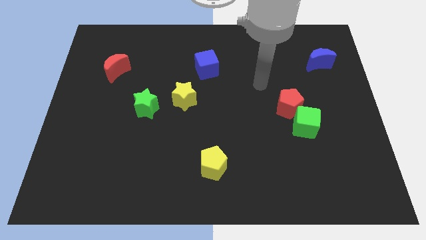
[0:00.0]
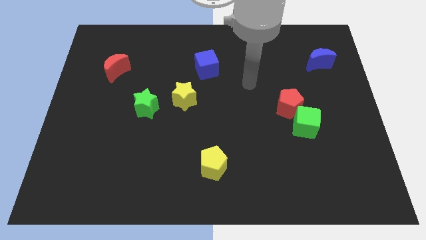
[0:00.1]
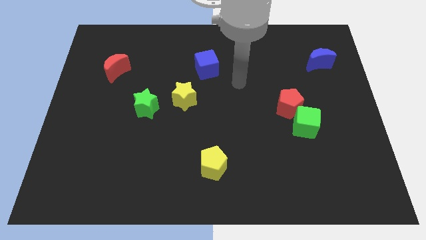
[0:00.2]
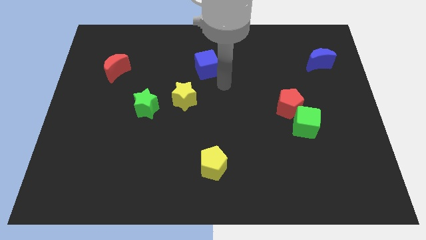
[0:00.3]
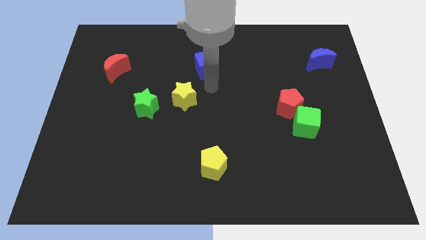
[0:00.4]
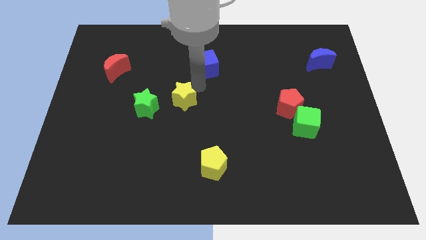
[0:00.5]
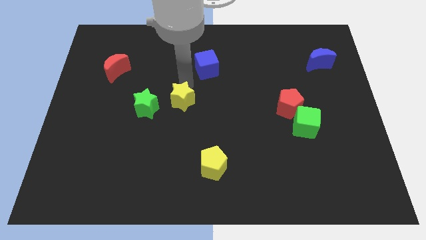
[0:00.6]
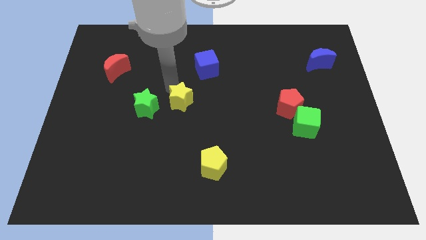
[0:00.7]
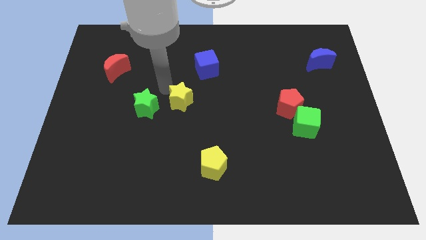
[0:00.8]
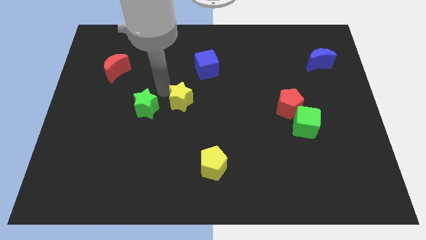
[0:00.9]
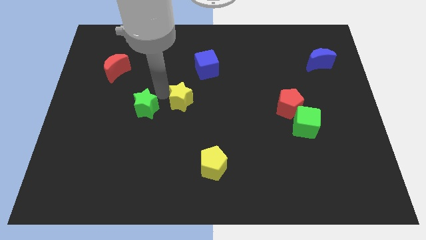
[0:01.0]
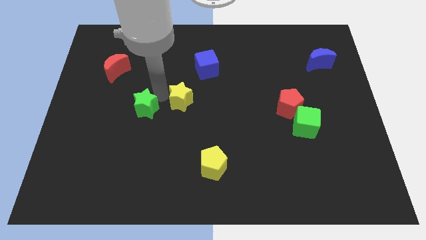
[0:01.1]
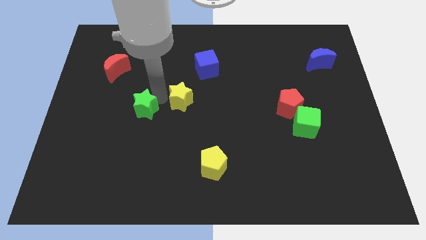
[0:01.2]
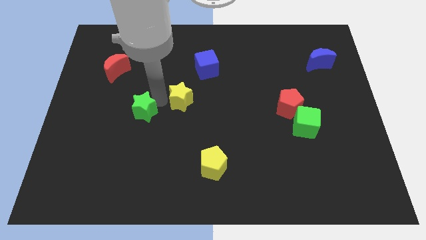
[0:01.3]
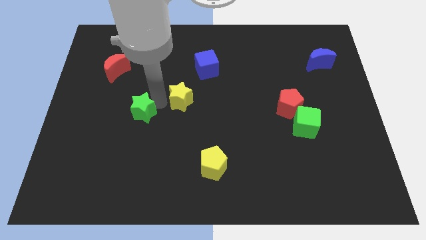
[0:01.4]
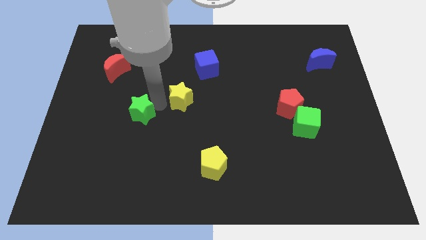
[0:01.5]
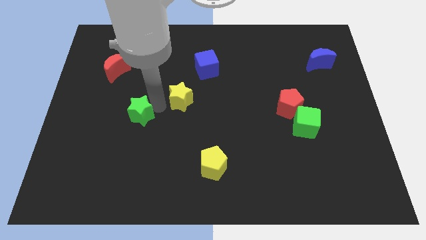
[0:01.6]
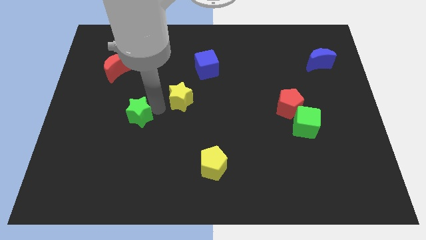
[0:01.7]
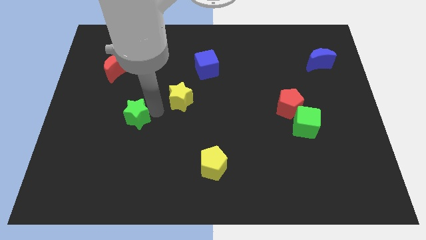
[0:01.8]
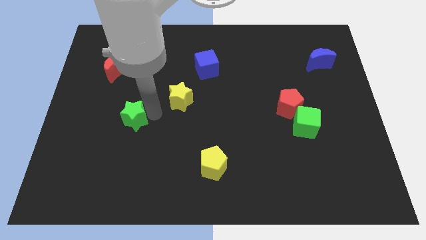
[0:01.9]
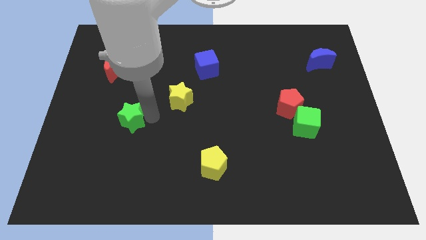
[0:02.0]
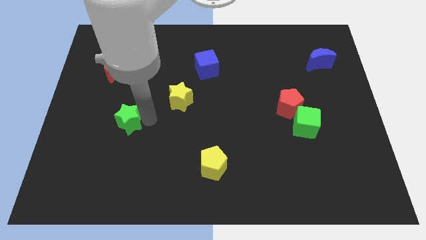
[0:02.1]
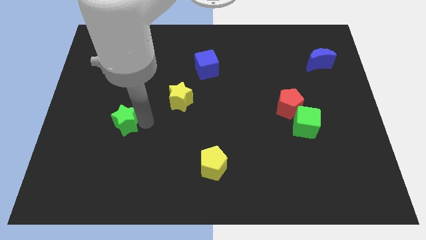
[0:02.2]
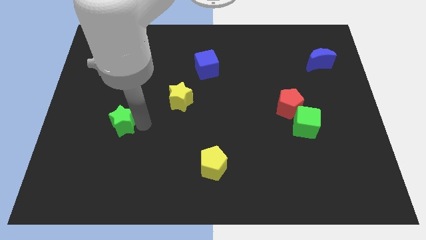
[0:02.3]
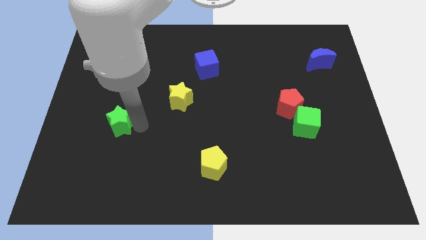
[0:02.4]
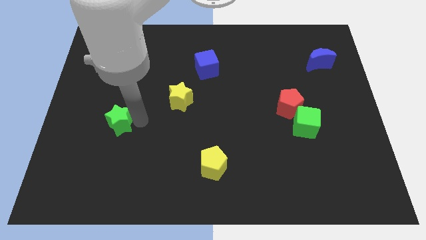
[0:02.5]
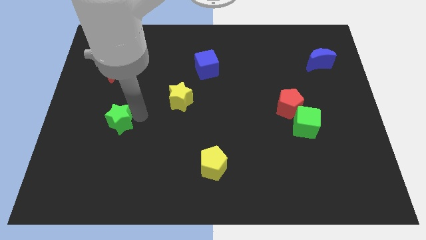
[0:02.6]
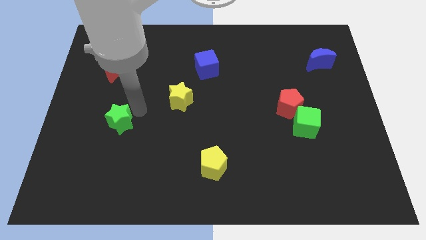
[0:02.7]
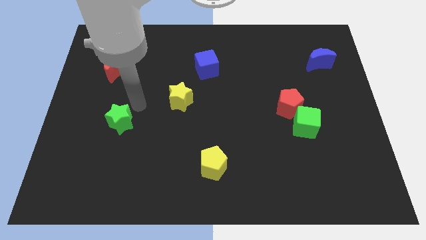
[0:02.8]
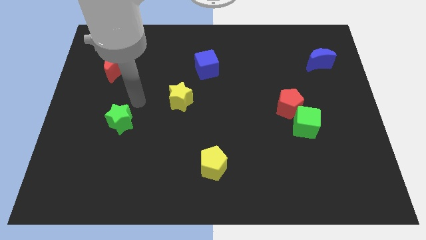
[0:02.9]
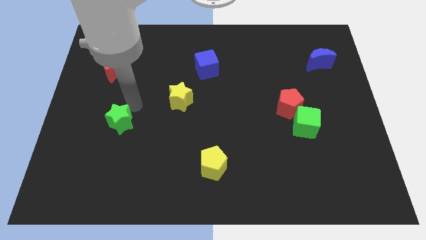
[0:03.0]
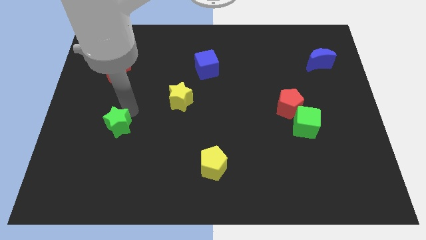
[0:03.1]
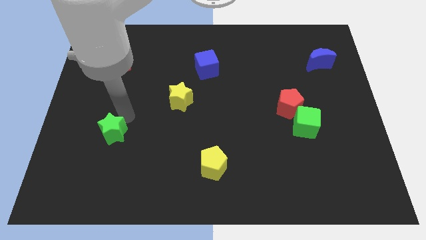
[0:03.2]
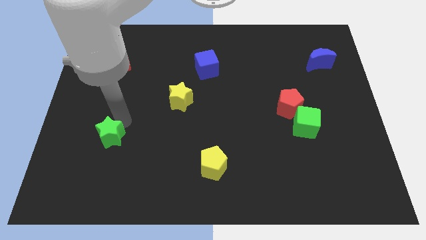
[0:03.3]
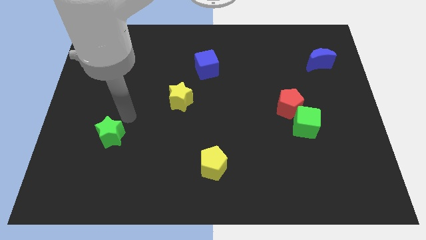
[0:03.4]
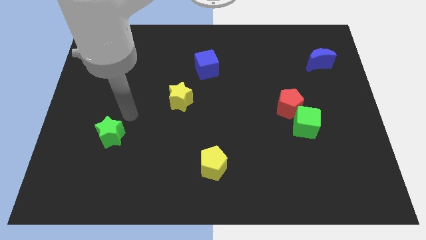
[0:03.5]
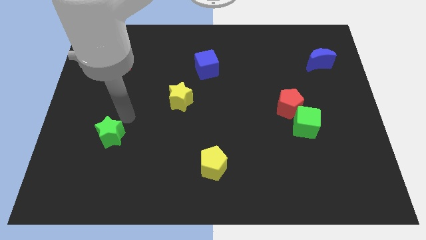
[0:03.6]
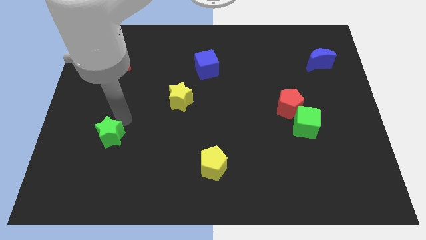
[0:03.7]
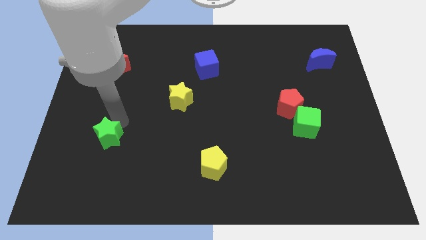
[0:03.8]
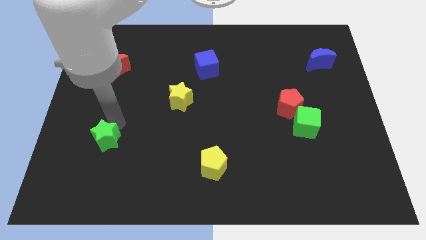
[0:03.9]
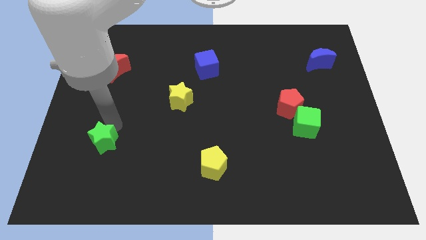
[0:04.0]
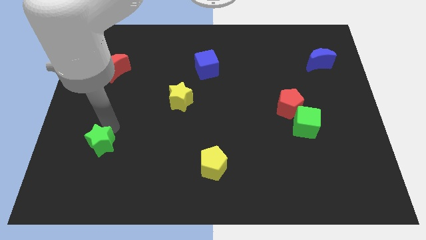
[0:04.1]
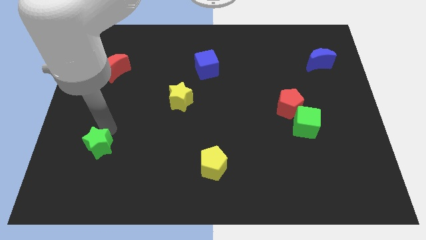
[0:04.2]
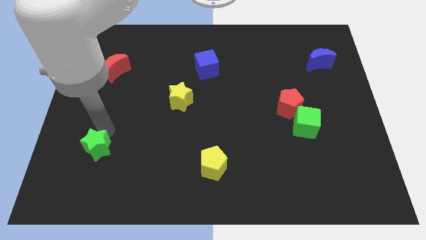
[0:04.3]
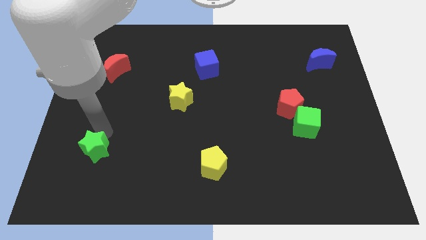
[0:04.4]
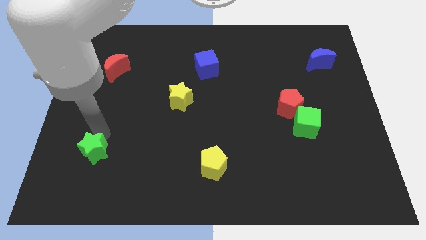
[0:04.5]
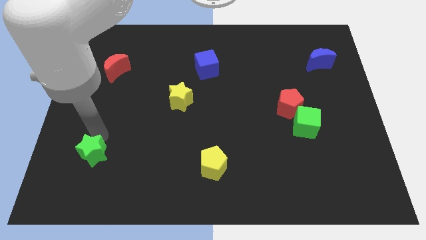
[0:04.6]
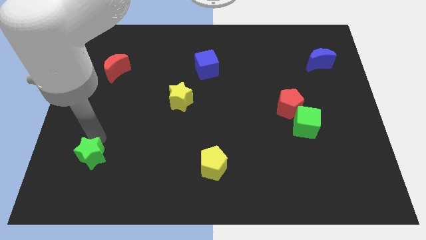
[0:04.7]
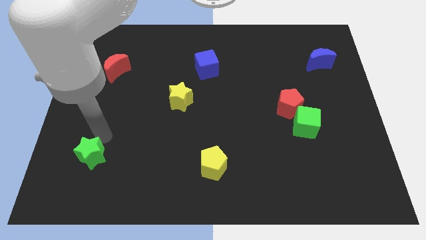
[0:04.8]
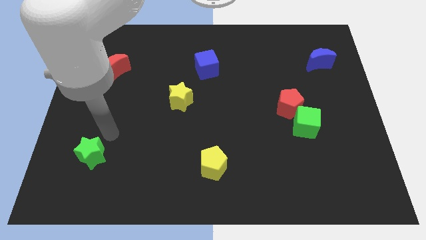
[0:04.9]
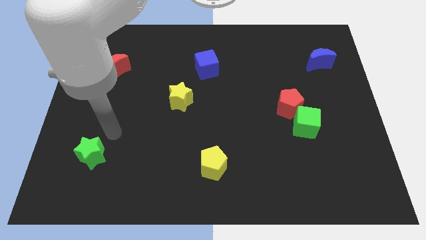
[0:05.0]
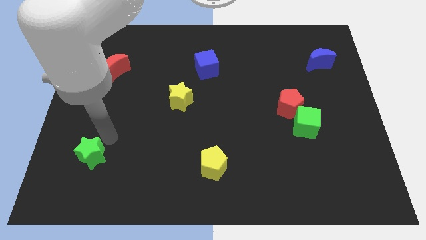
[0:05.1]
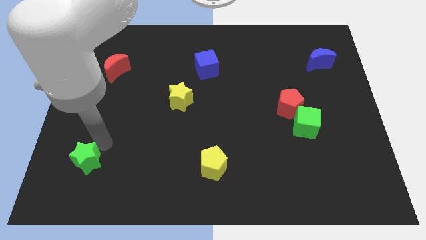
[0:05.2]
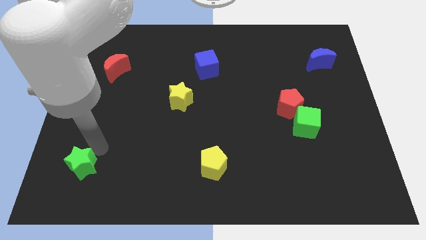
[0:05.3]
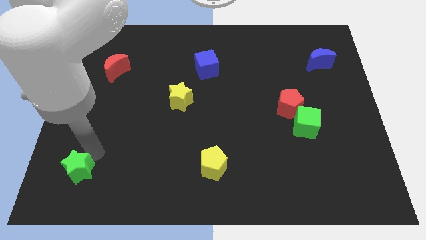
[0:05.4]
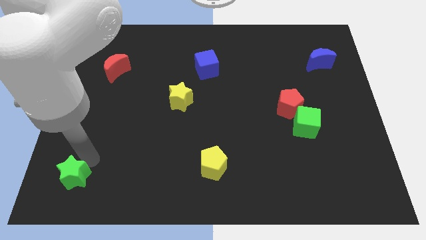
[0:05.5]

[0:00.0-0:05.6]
slide the green star to the bottom left of the board
